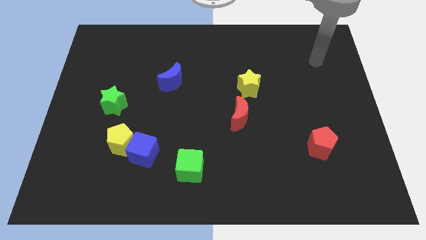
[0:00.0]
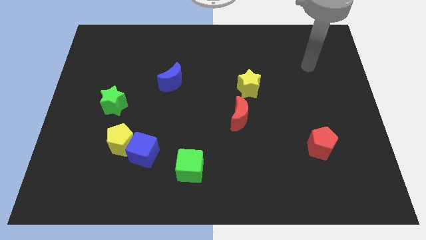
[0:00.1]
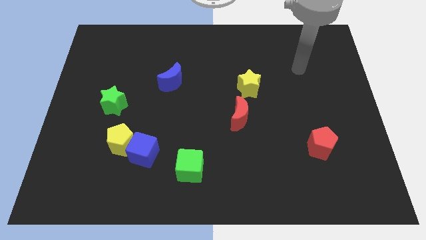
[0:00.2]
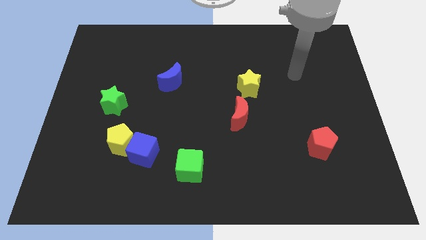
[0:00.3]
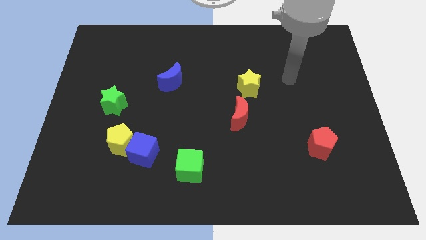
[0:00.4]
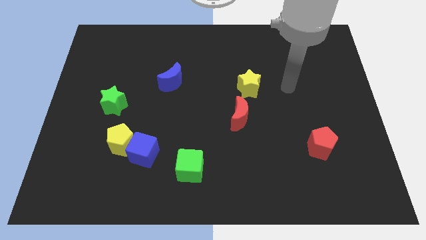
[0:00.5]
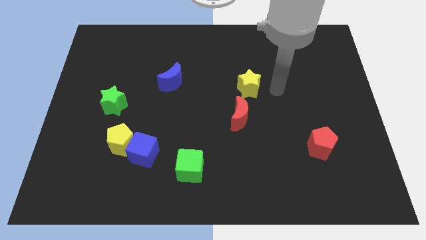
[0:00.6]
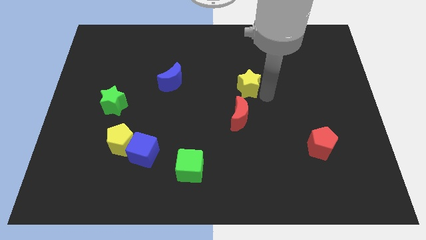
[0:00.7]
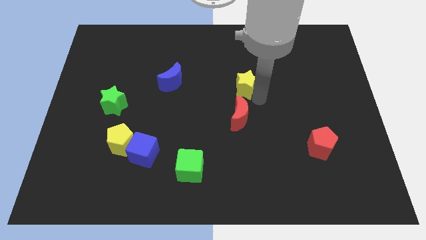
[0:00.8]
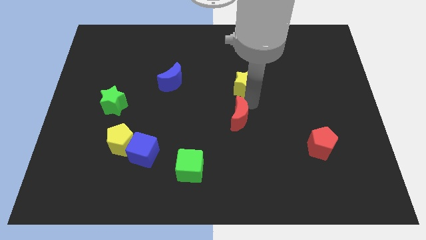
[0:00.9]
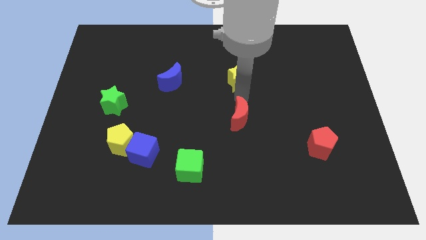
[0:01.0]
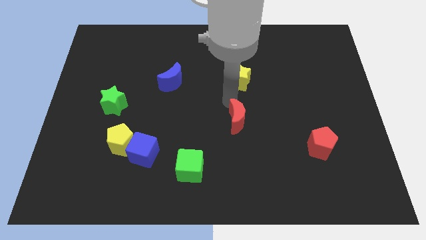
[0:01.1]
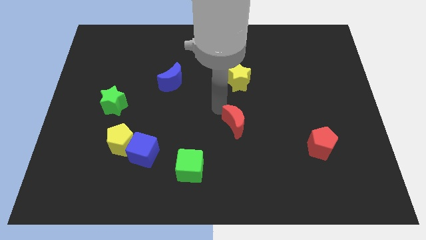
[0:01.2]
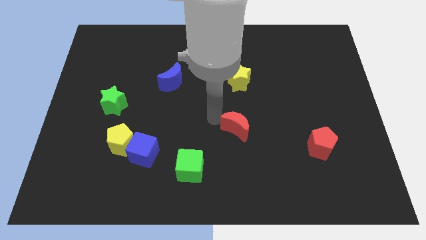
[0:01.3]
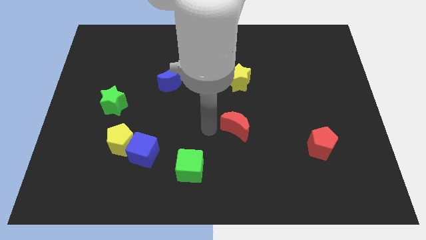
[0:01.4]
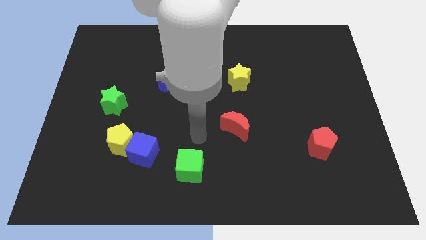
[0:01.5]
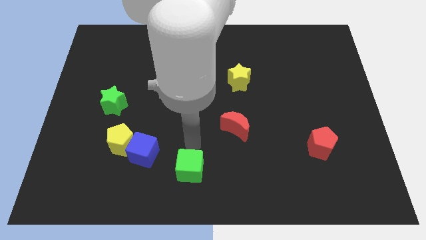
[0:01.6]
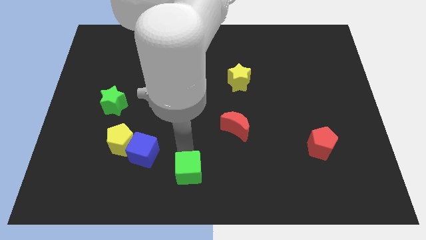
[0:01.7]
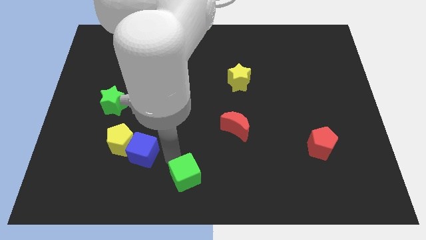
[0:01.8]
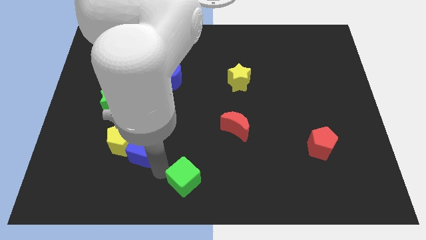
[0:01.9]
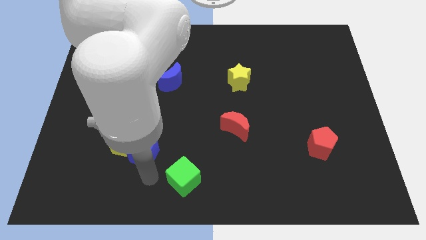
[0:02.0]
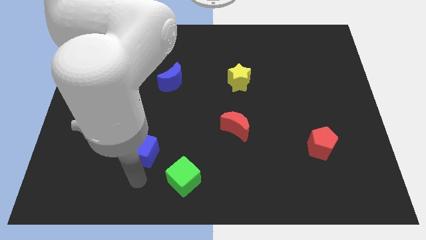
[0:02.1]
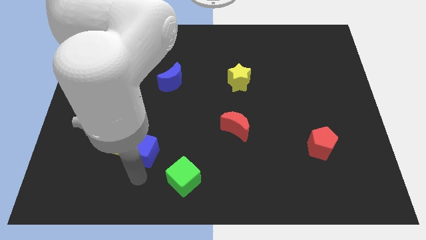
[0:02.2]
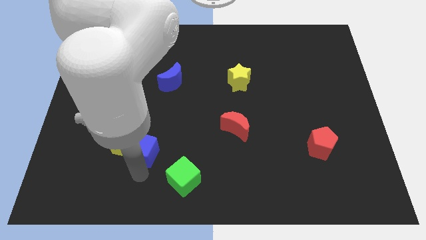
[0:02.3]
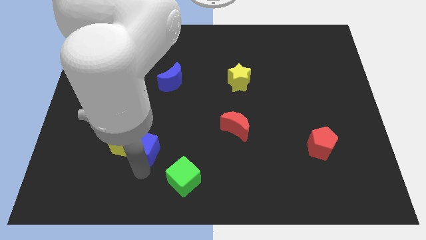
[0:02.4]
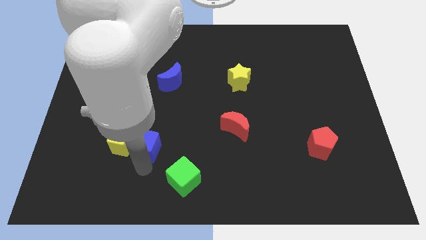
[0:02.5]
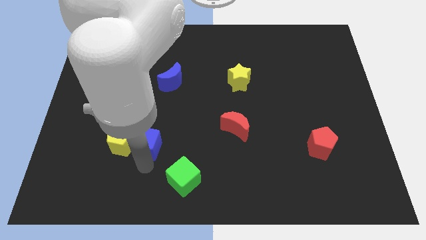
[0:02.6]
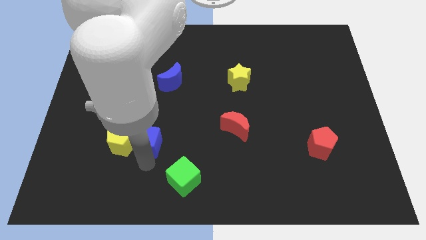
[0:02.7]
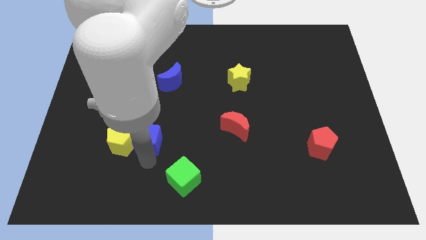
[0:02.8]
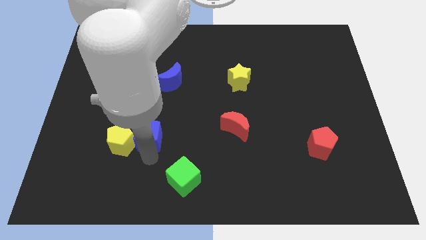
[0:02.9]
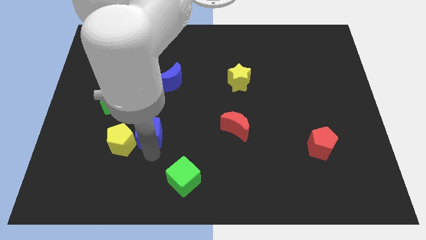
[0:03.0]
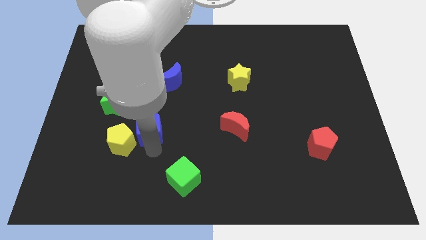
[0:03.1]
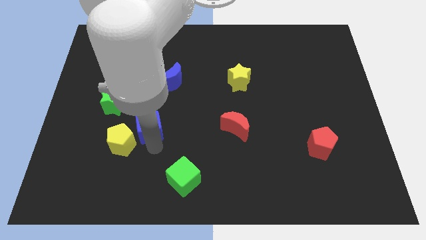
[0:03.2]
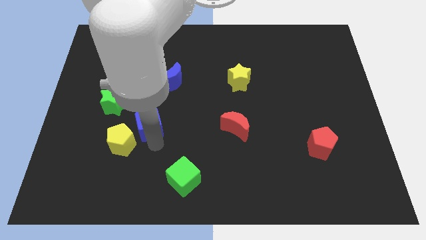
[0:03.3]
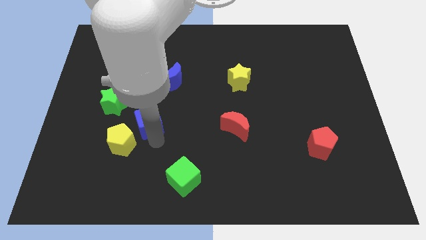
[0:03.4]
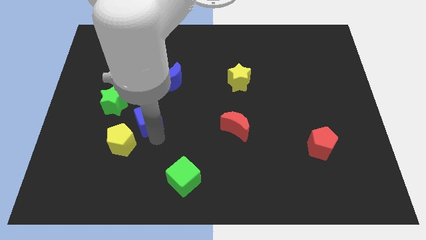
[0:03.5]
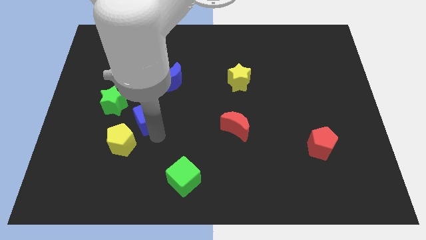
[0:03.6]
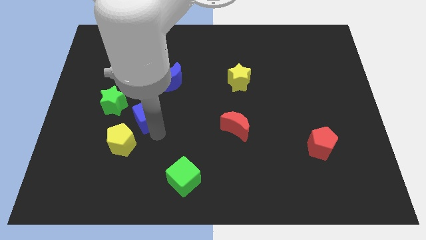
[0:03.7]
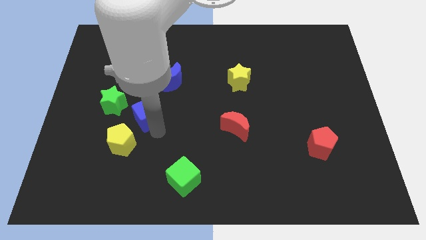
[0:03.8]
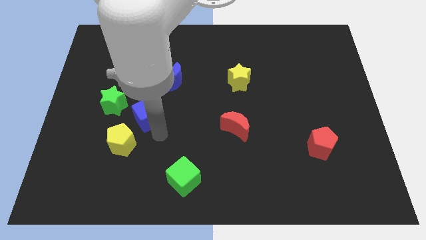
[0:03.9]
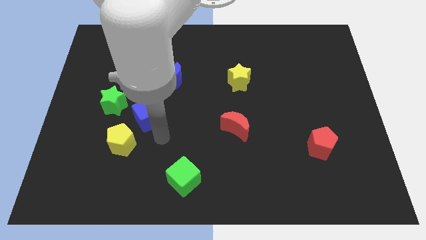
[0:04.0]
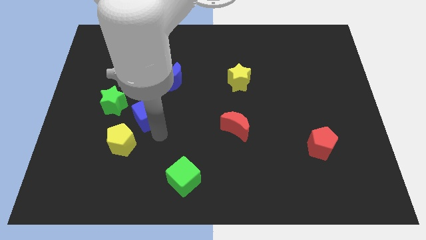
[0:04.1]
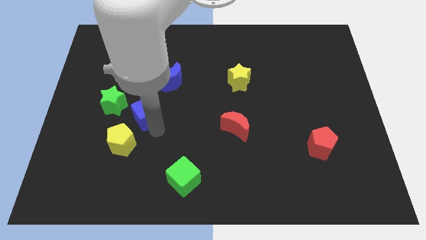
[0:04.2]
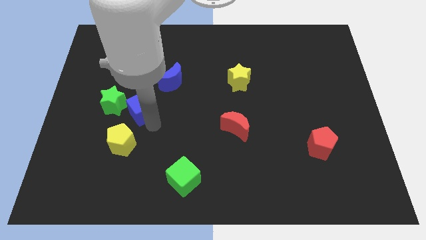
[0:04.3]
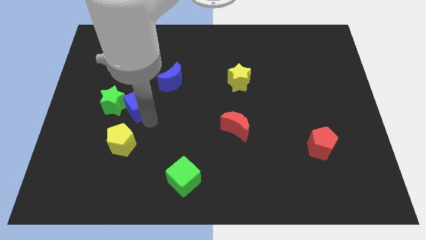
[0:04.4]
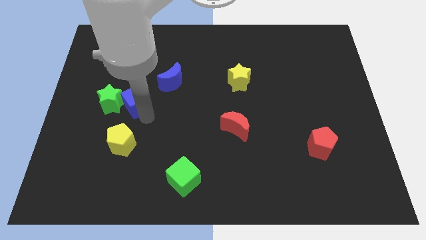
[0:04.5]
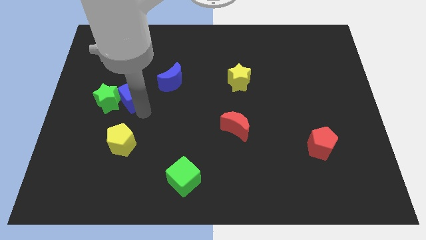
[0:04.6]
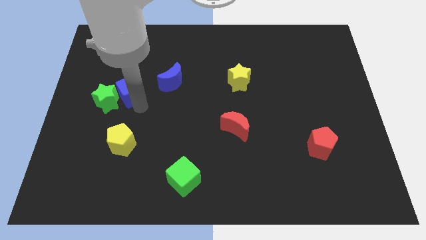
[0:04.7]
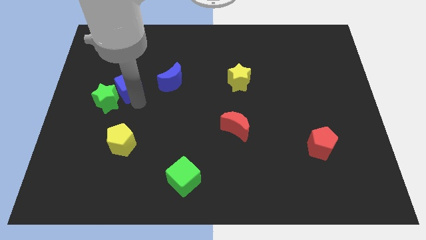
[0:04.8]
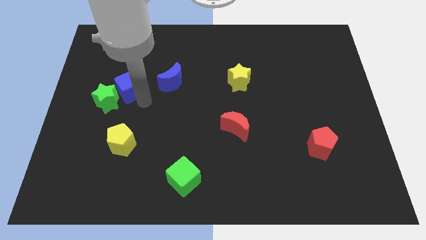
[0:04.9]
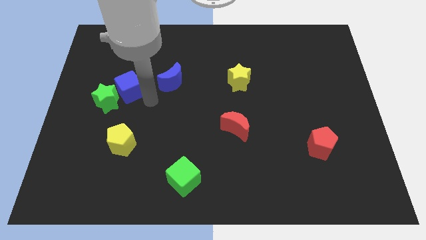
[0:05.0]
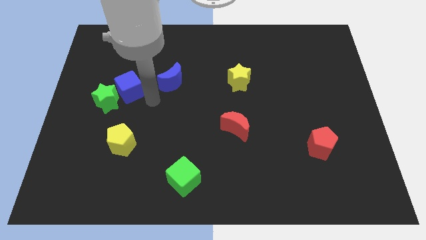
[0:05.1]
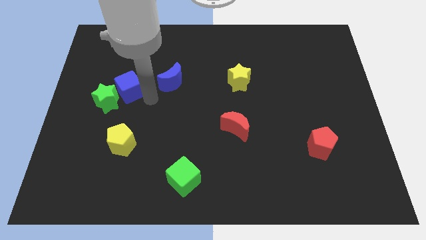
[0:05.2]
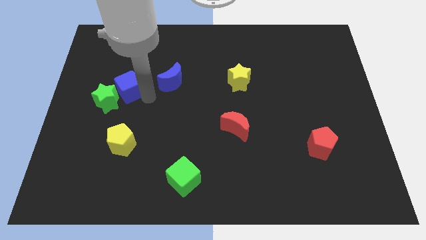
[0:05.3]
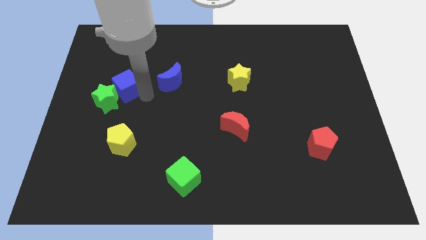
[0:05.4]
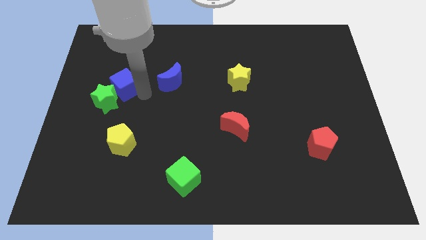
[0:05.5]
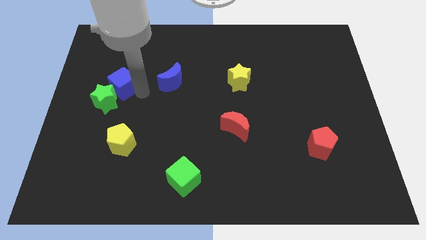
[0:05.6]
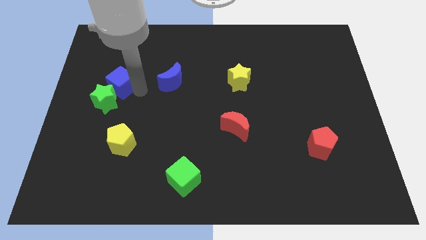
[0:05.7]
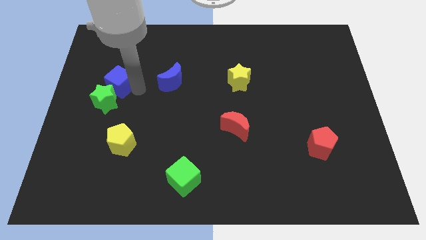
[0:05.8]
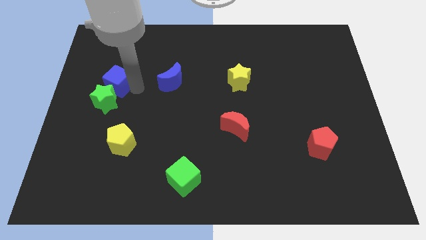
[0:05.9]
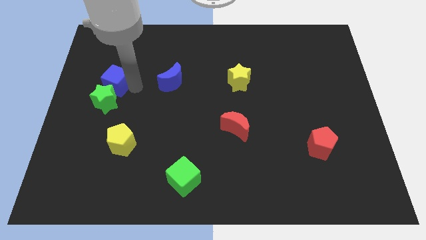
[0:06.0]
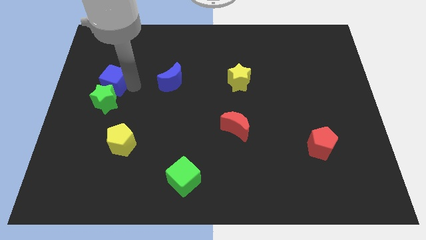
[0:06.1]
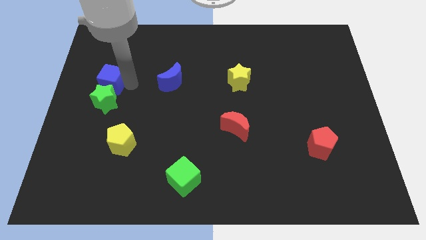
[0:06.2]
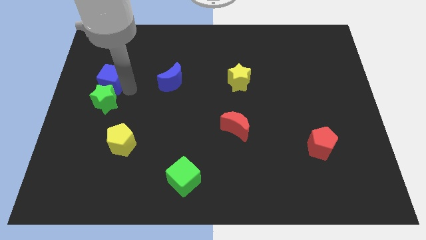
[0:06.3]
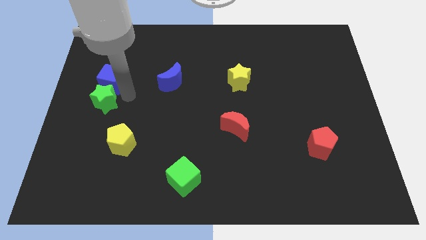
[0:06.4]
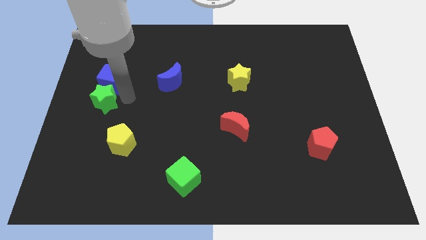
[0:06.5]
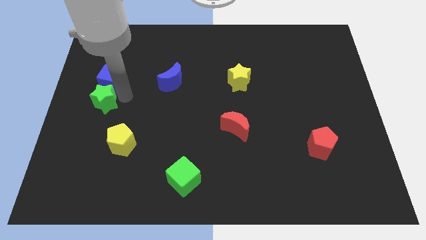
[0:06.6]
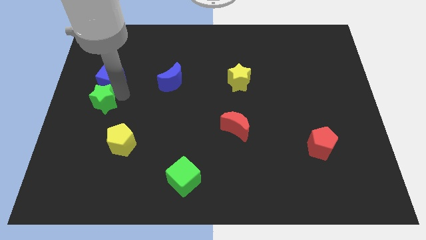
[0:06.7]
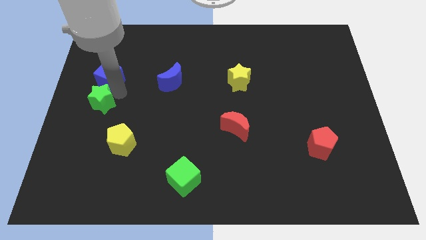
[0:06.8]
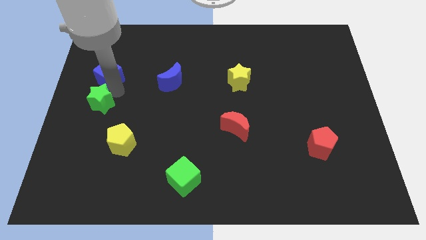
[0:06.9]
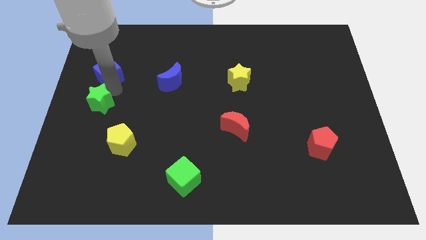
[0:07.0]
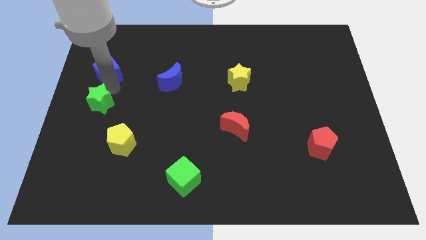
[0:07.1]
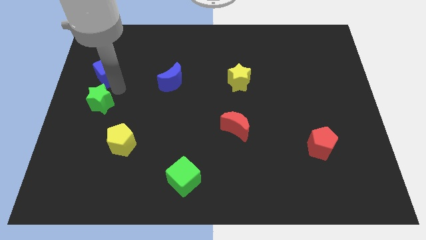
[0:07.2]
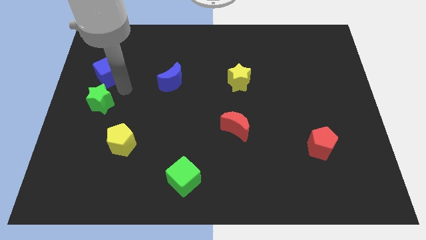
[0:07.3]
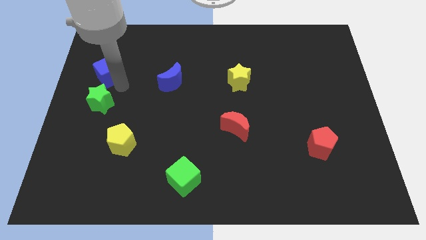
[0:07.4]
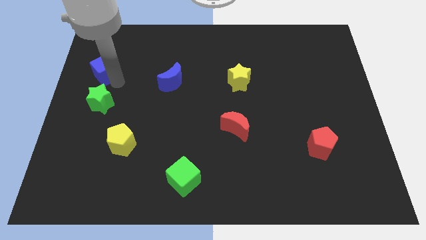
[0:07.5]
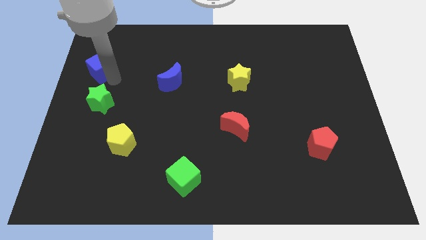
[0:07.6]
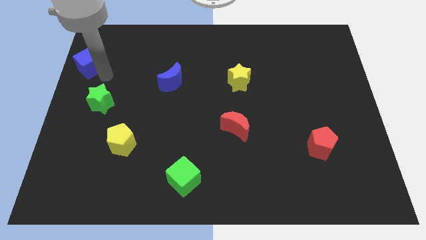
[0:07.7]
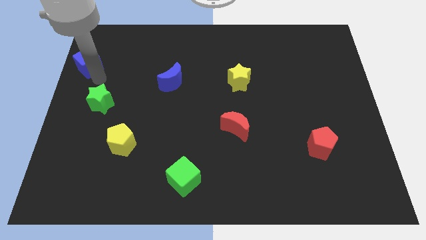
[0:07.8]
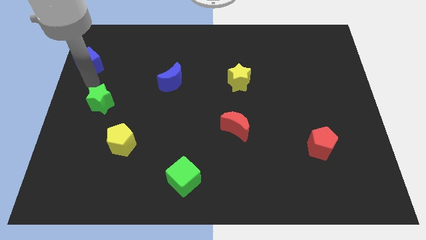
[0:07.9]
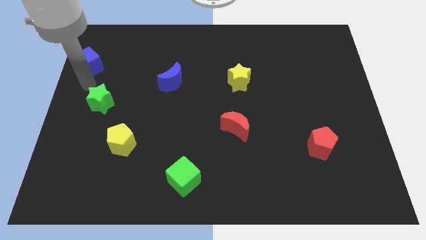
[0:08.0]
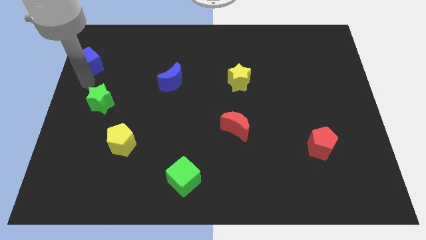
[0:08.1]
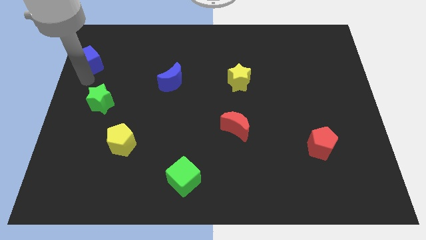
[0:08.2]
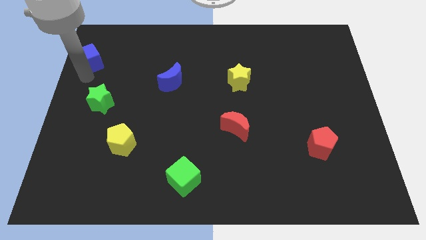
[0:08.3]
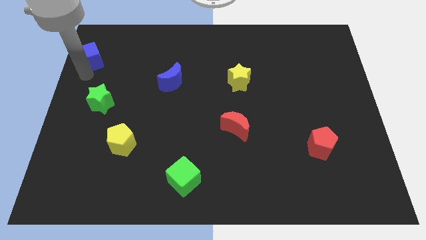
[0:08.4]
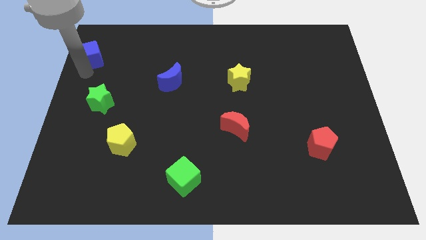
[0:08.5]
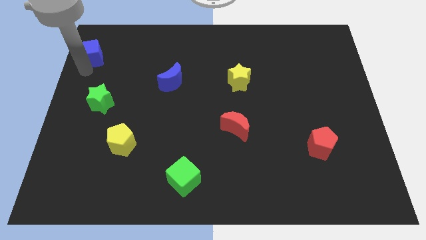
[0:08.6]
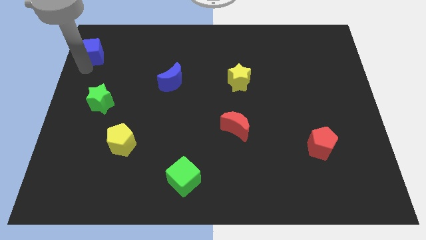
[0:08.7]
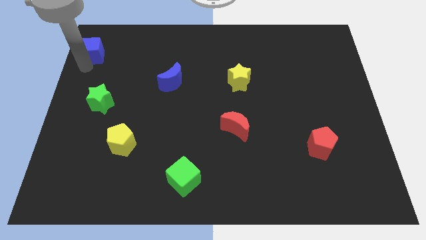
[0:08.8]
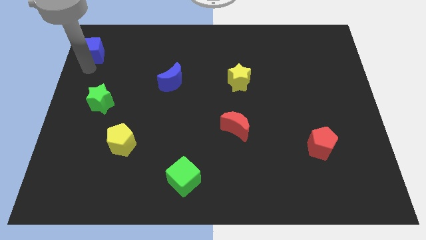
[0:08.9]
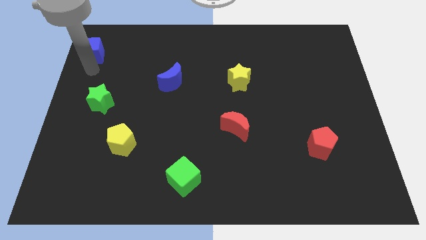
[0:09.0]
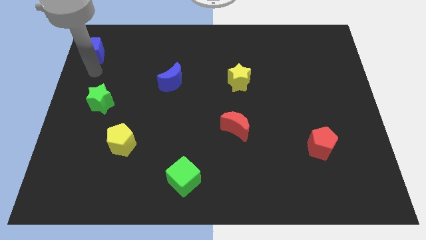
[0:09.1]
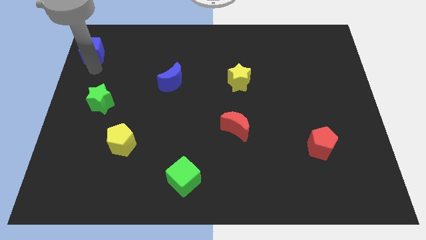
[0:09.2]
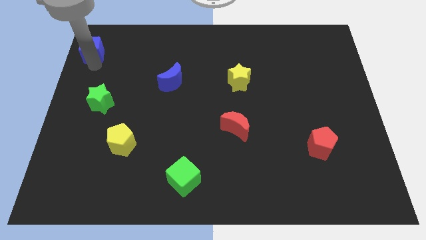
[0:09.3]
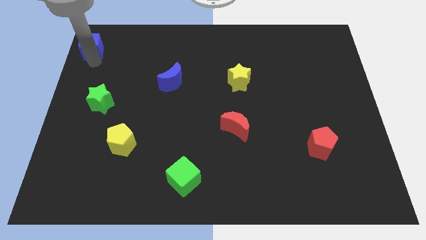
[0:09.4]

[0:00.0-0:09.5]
slide the blue cube to the upper left corner
